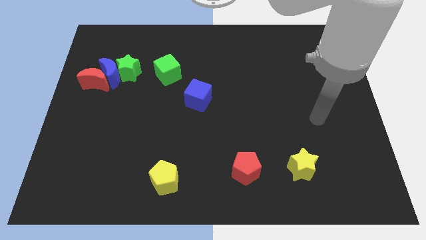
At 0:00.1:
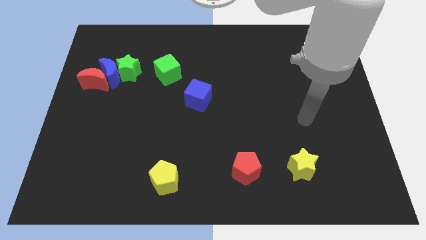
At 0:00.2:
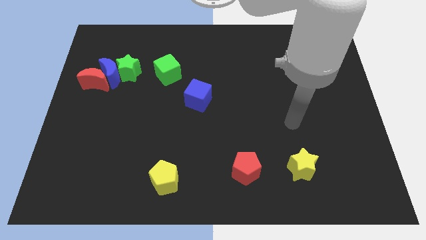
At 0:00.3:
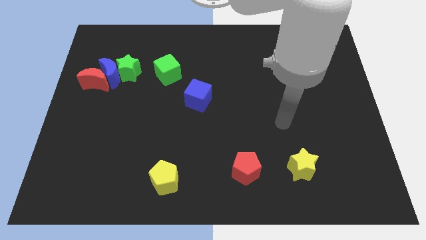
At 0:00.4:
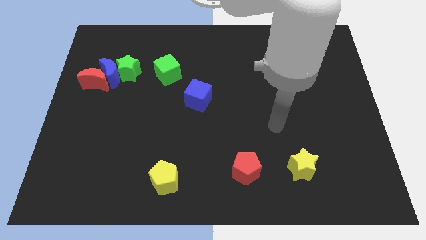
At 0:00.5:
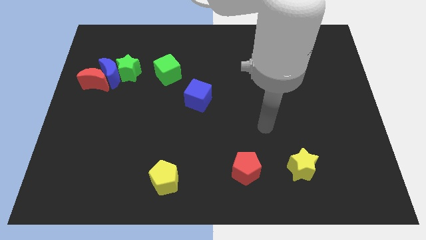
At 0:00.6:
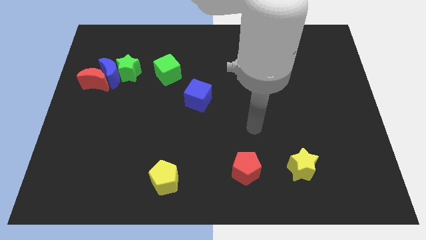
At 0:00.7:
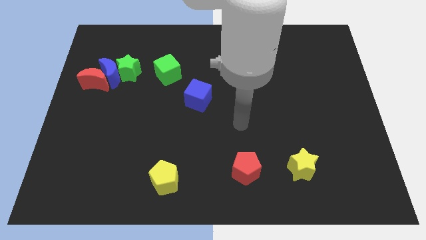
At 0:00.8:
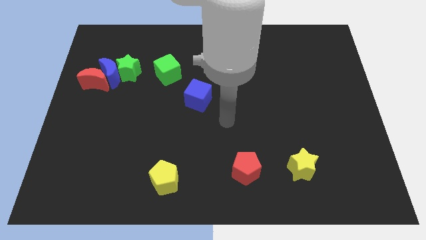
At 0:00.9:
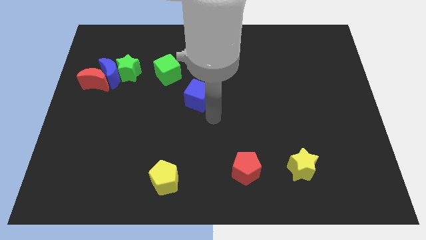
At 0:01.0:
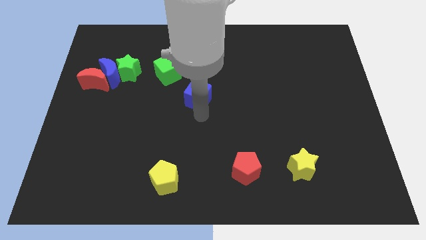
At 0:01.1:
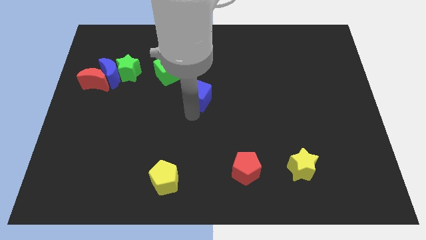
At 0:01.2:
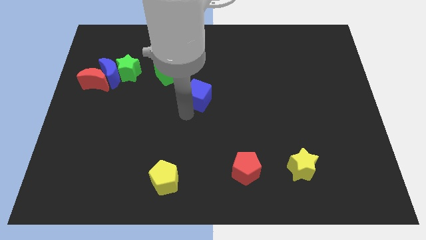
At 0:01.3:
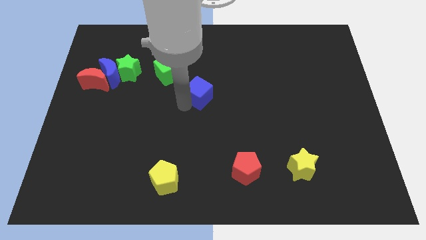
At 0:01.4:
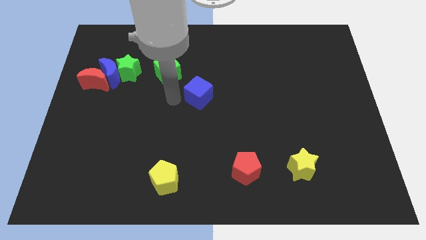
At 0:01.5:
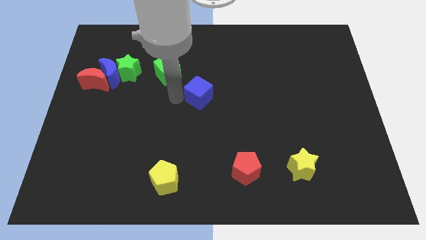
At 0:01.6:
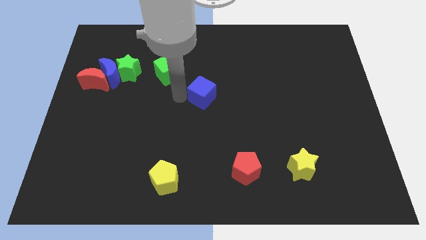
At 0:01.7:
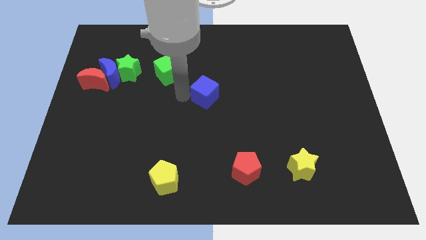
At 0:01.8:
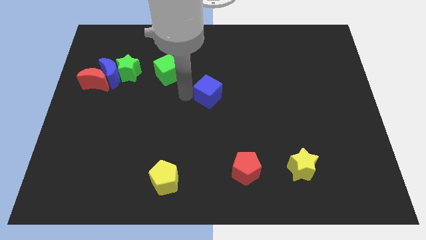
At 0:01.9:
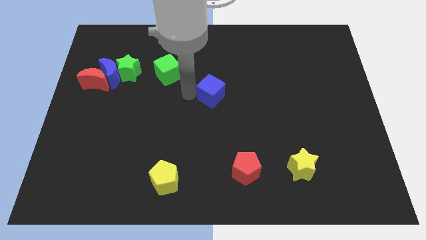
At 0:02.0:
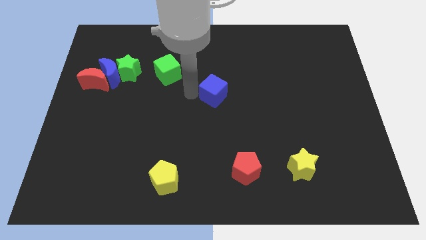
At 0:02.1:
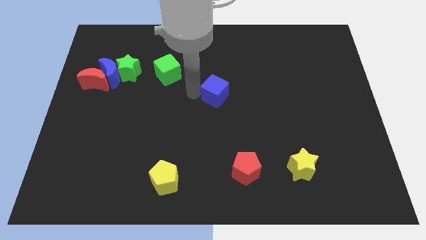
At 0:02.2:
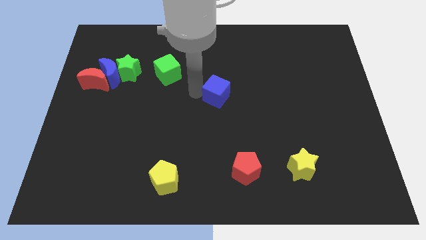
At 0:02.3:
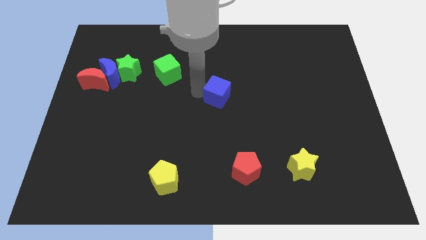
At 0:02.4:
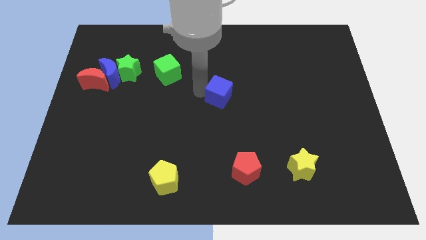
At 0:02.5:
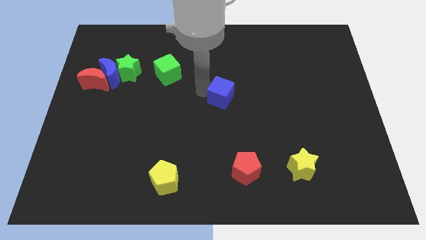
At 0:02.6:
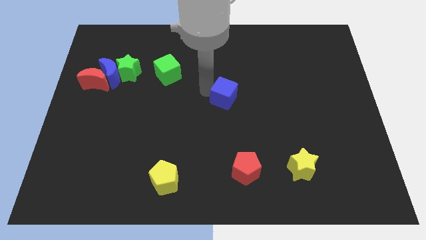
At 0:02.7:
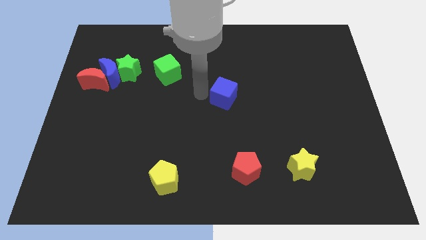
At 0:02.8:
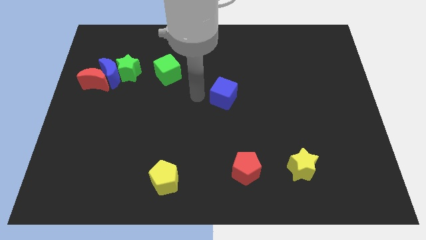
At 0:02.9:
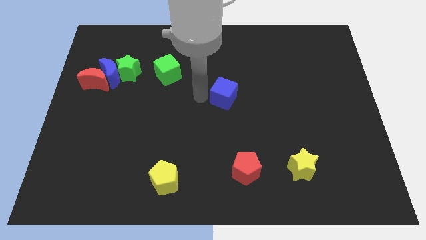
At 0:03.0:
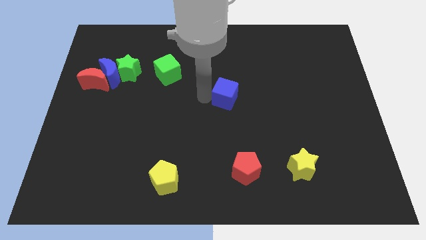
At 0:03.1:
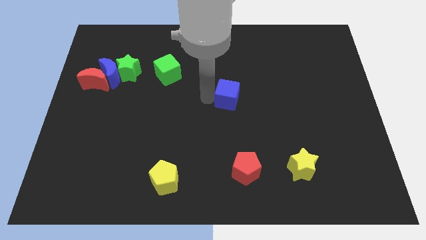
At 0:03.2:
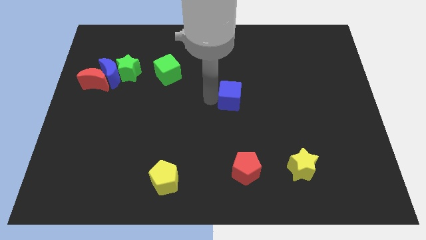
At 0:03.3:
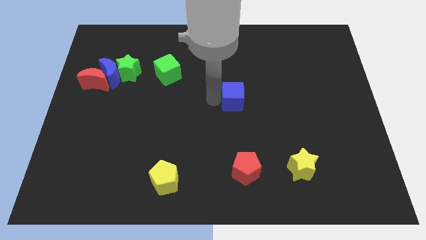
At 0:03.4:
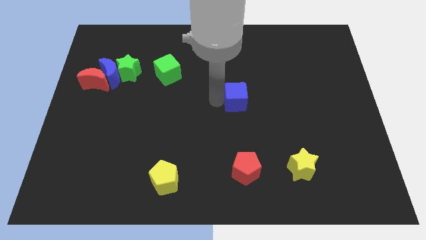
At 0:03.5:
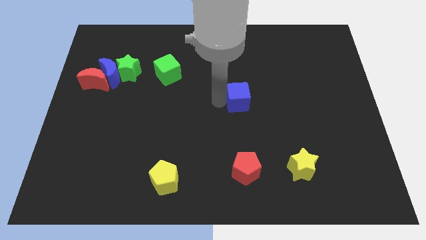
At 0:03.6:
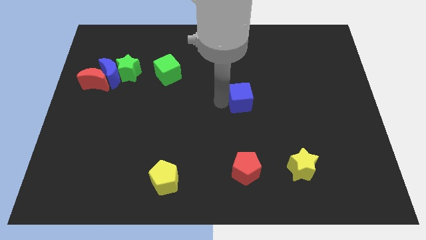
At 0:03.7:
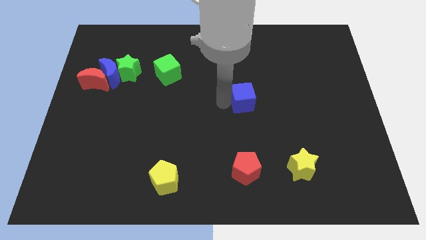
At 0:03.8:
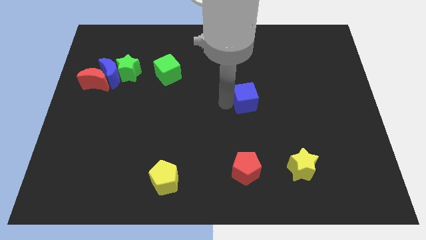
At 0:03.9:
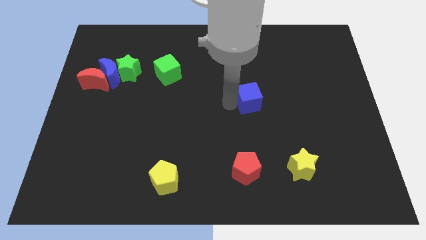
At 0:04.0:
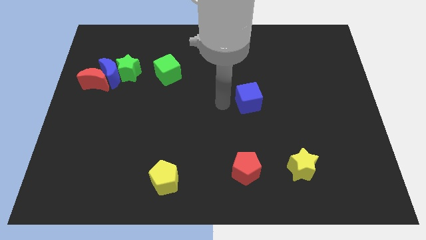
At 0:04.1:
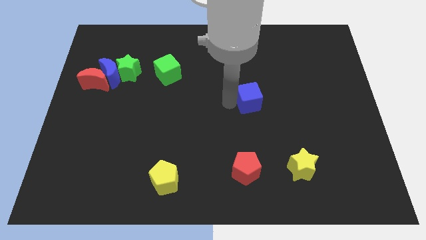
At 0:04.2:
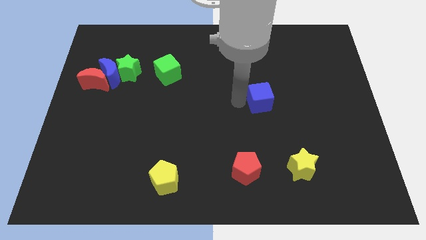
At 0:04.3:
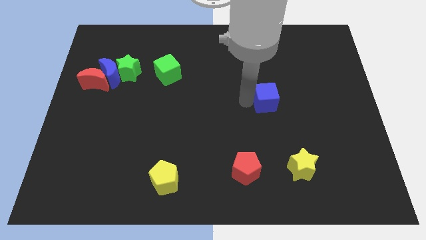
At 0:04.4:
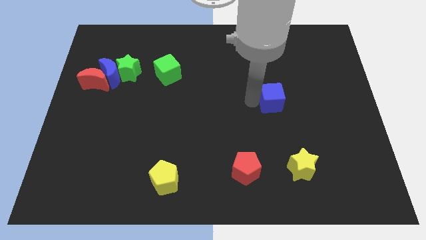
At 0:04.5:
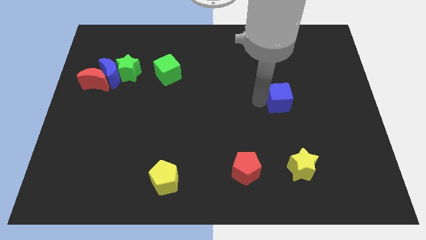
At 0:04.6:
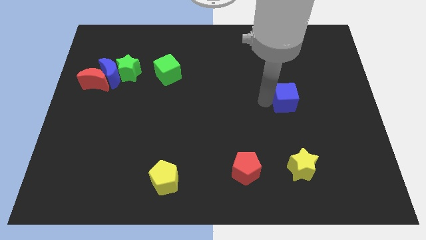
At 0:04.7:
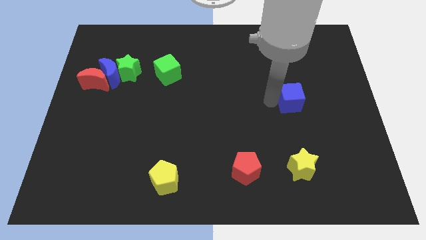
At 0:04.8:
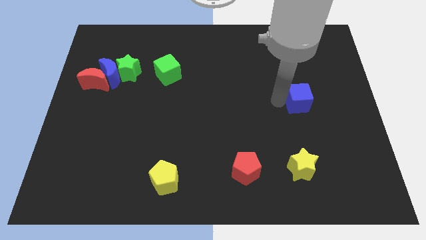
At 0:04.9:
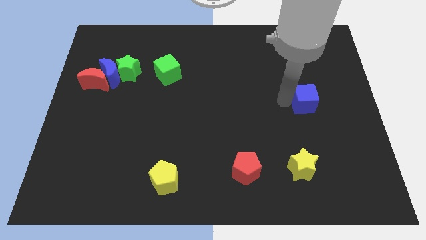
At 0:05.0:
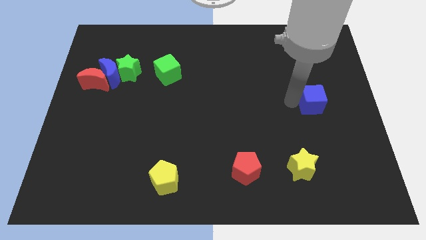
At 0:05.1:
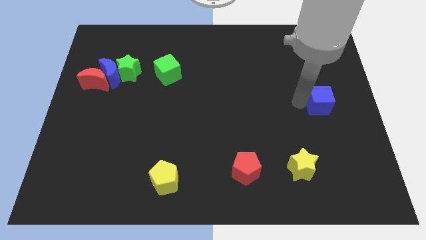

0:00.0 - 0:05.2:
put the blue cube to the right side

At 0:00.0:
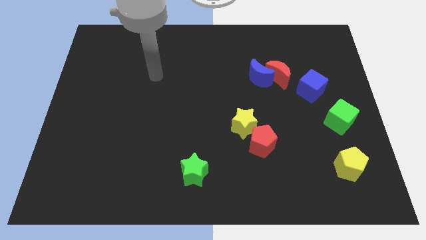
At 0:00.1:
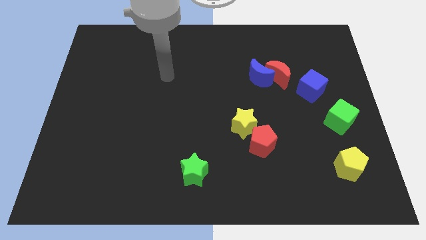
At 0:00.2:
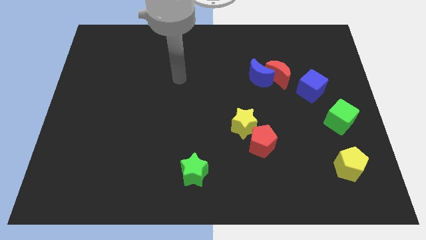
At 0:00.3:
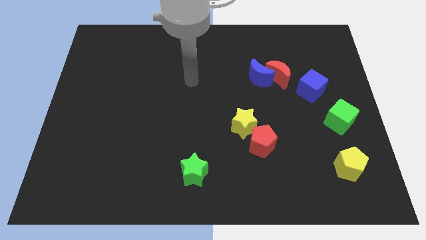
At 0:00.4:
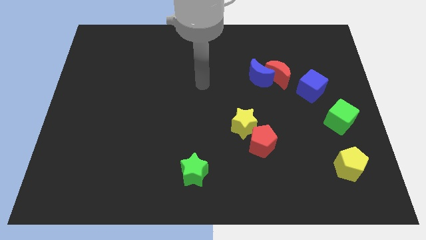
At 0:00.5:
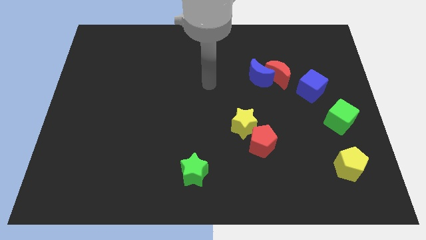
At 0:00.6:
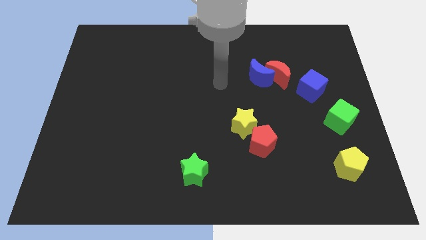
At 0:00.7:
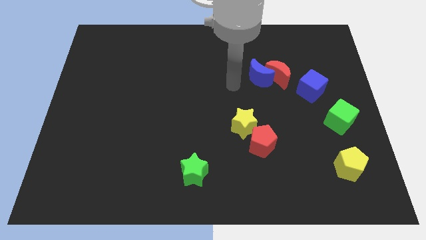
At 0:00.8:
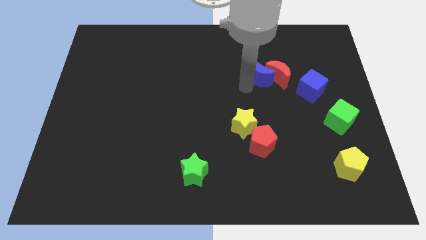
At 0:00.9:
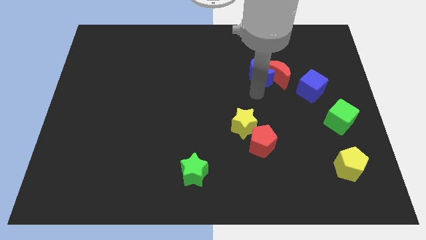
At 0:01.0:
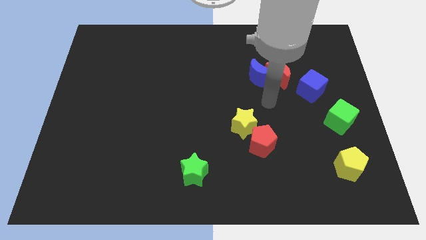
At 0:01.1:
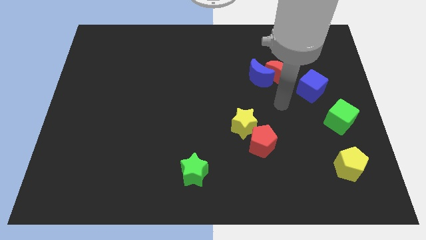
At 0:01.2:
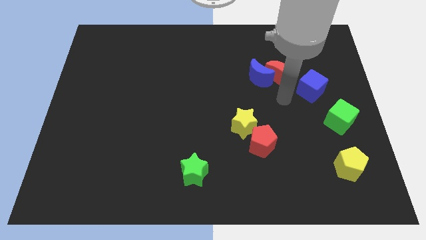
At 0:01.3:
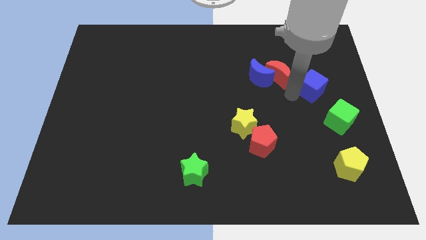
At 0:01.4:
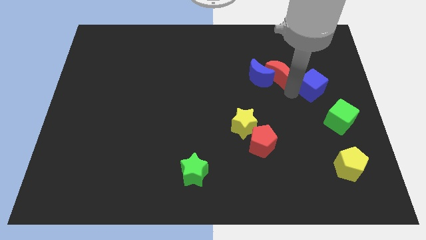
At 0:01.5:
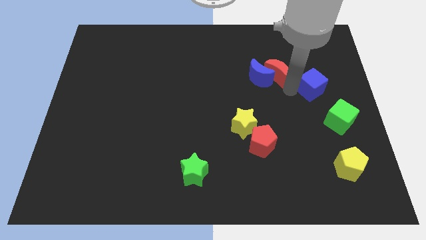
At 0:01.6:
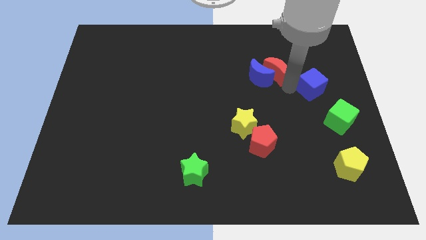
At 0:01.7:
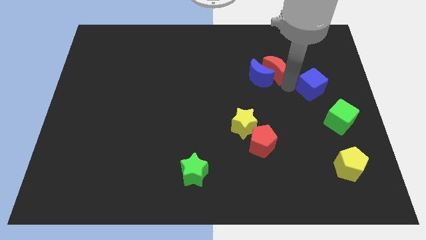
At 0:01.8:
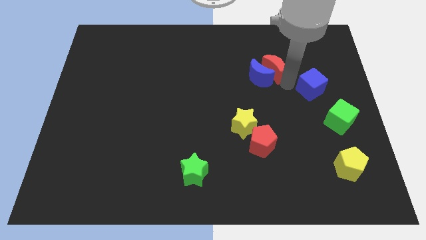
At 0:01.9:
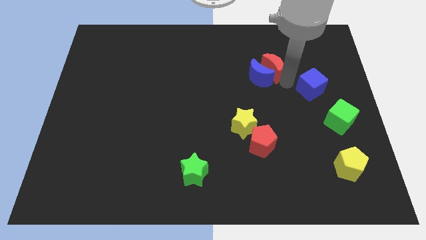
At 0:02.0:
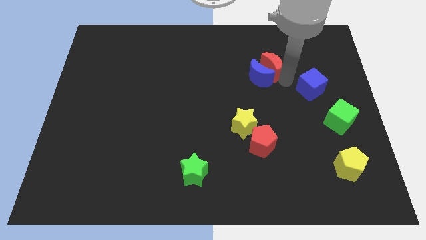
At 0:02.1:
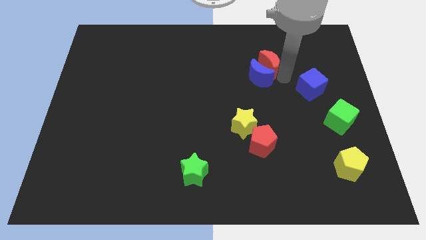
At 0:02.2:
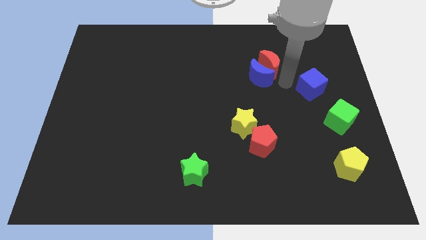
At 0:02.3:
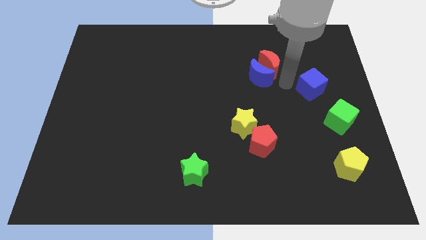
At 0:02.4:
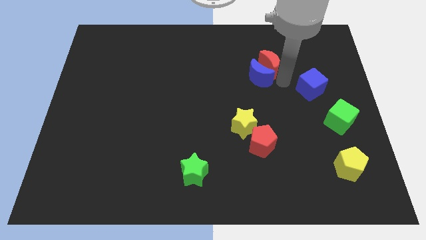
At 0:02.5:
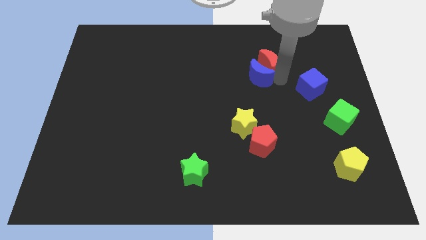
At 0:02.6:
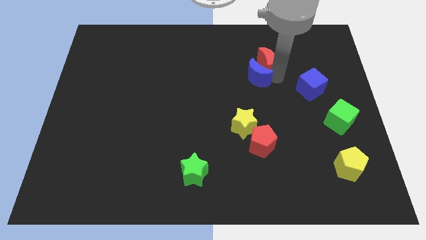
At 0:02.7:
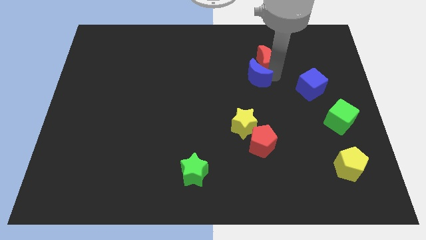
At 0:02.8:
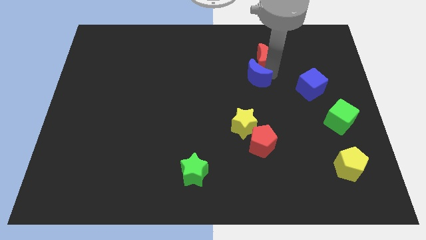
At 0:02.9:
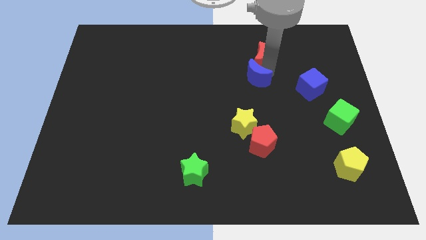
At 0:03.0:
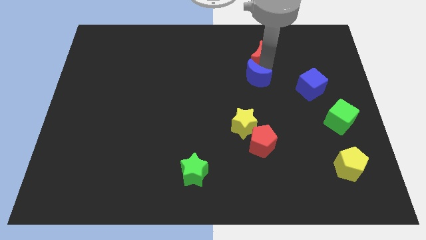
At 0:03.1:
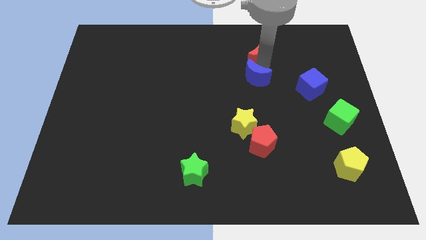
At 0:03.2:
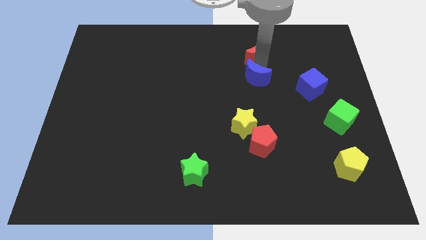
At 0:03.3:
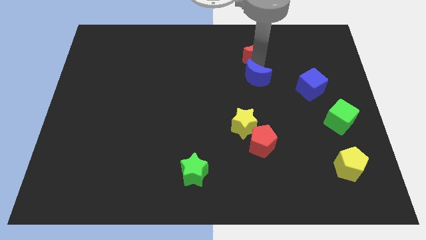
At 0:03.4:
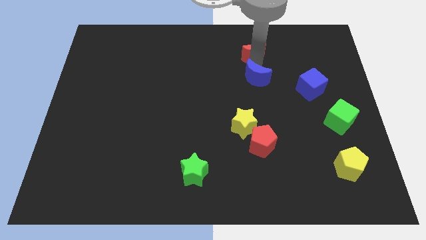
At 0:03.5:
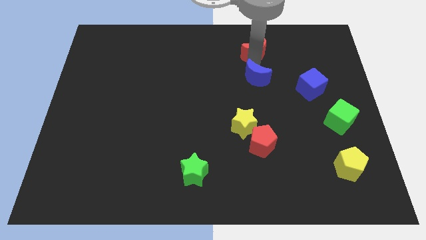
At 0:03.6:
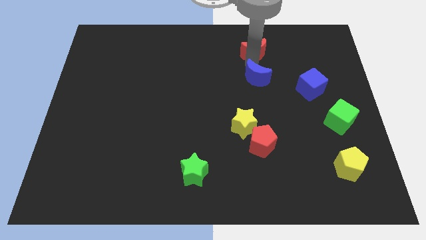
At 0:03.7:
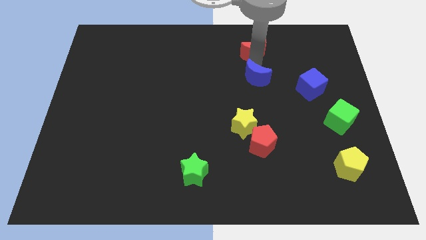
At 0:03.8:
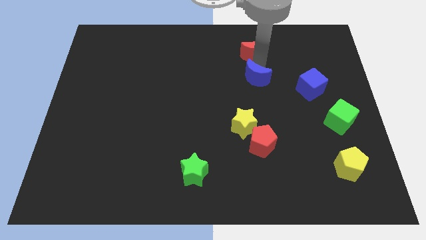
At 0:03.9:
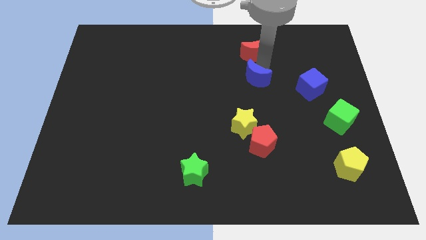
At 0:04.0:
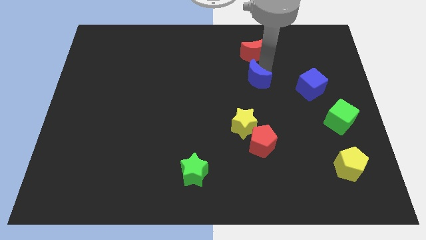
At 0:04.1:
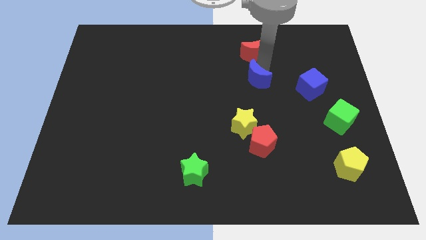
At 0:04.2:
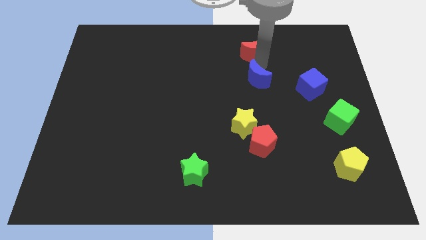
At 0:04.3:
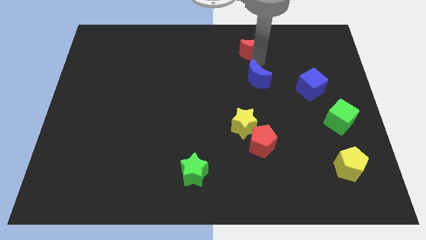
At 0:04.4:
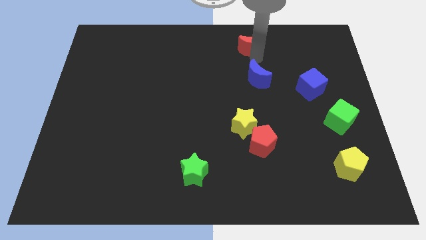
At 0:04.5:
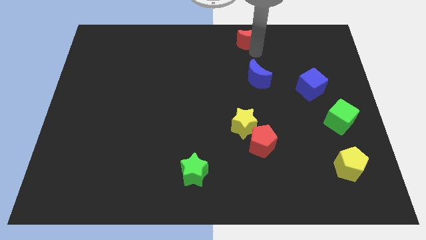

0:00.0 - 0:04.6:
put the red moon to the towards your base
